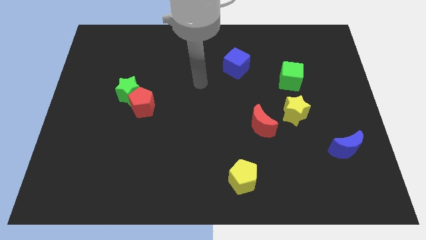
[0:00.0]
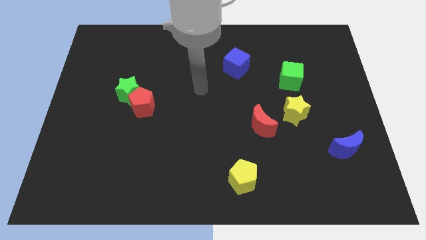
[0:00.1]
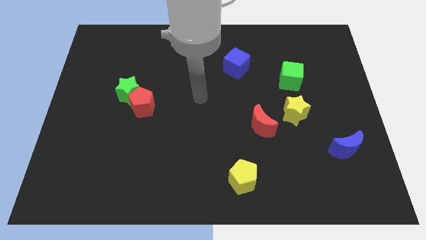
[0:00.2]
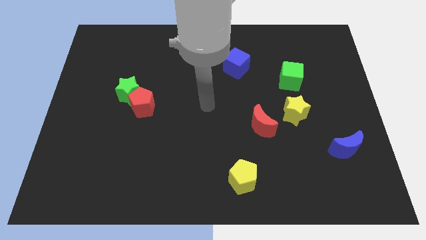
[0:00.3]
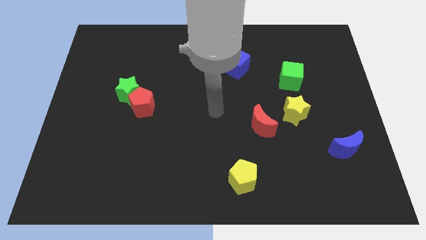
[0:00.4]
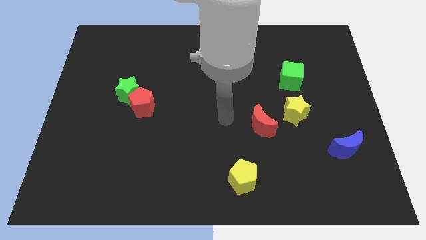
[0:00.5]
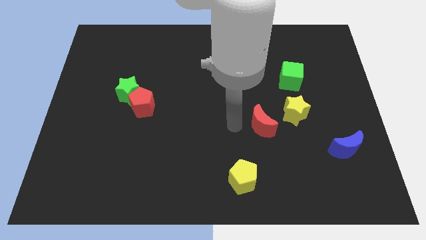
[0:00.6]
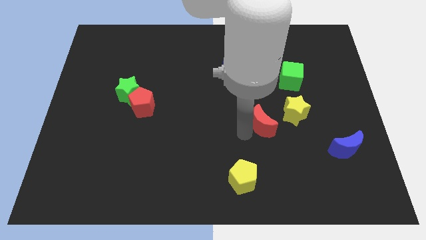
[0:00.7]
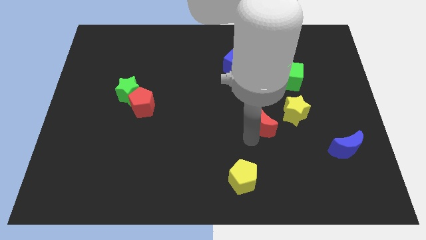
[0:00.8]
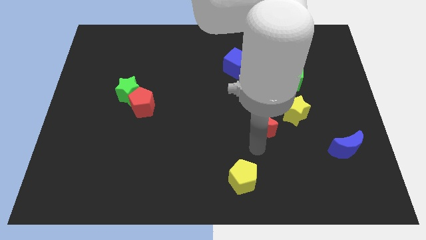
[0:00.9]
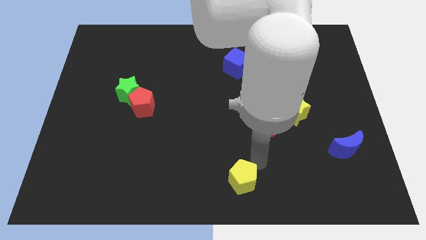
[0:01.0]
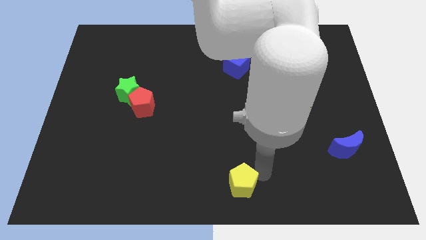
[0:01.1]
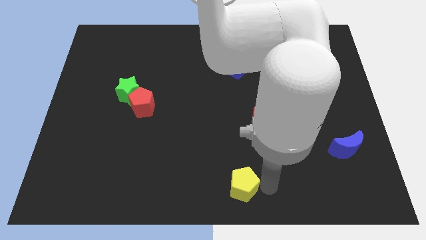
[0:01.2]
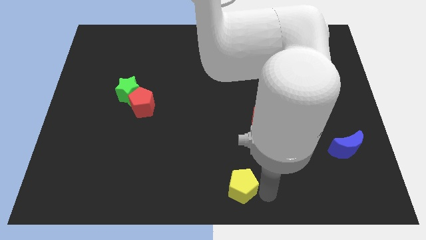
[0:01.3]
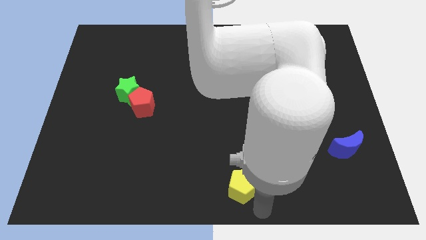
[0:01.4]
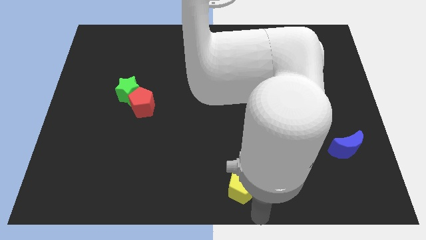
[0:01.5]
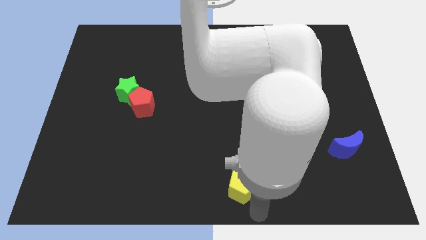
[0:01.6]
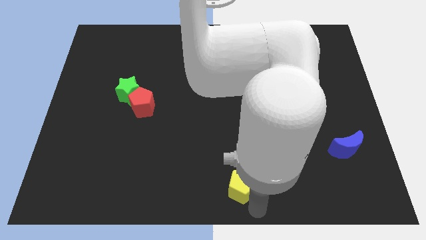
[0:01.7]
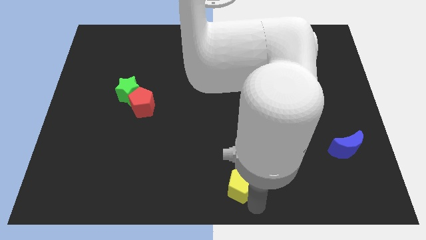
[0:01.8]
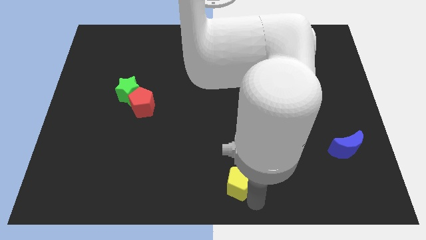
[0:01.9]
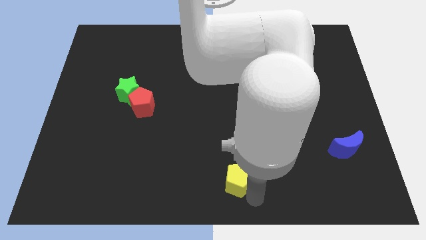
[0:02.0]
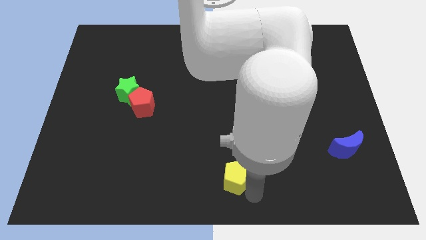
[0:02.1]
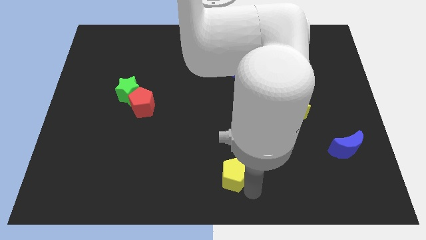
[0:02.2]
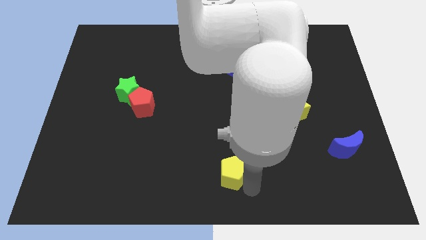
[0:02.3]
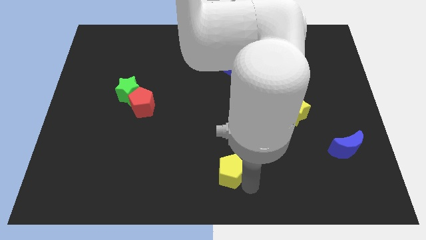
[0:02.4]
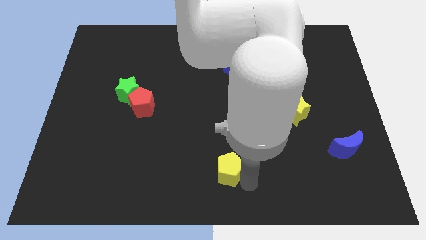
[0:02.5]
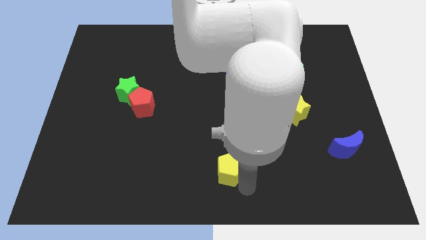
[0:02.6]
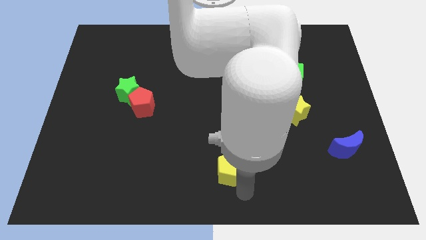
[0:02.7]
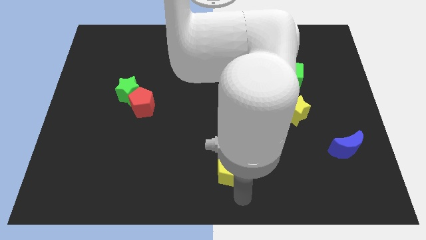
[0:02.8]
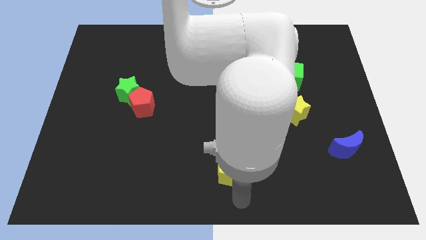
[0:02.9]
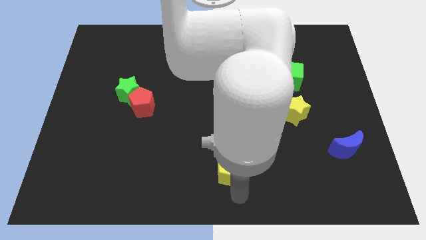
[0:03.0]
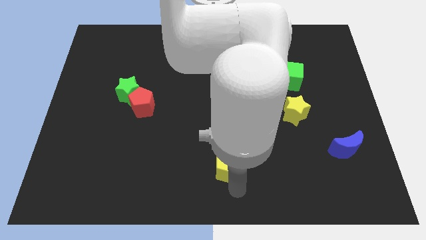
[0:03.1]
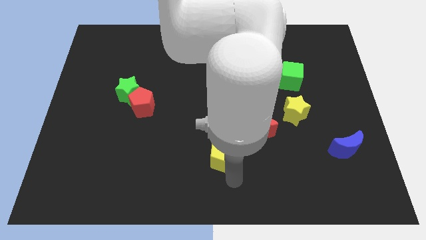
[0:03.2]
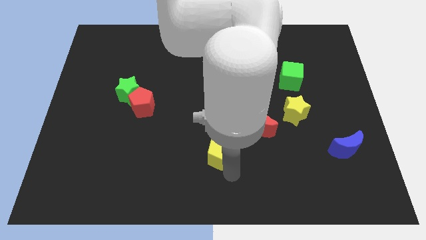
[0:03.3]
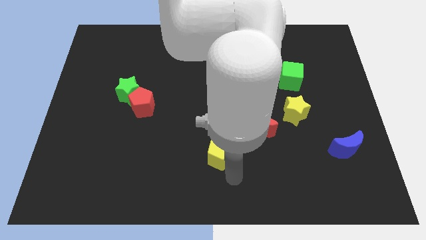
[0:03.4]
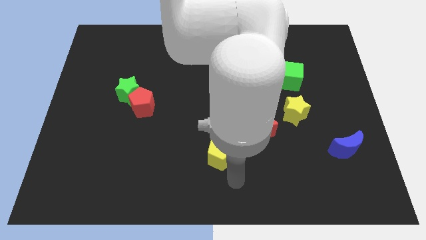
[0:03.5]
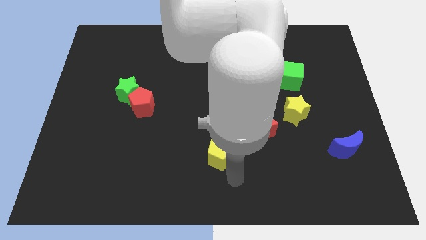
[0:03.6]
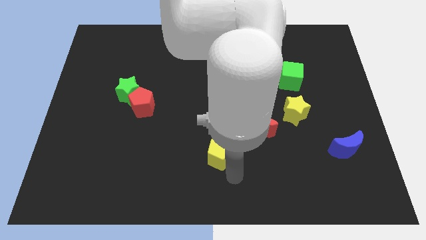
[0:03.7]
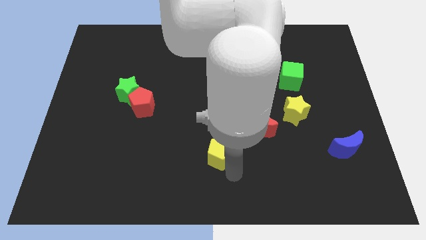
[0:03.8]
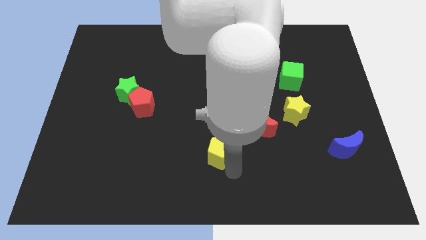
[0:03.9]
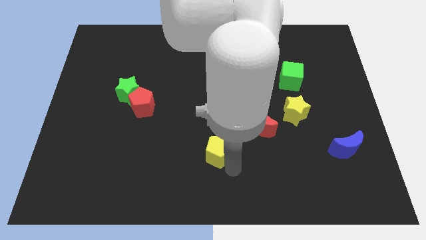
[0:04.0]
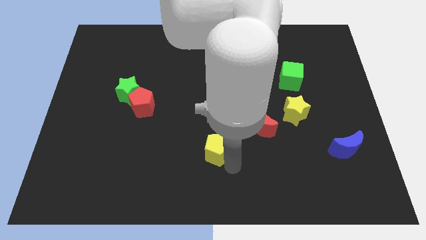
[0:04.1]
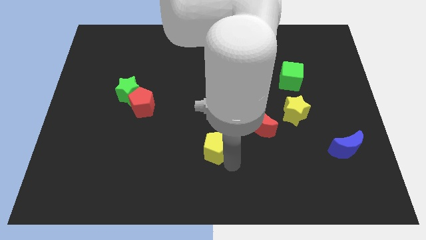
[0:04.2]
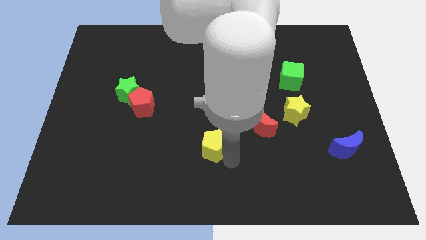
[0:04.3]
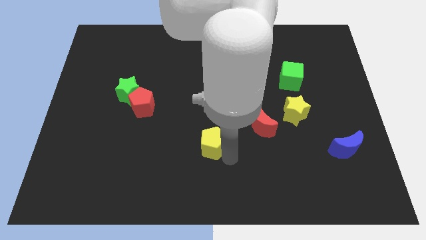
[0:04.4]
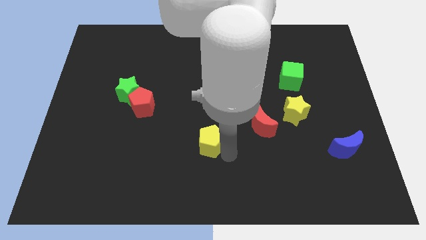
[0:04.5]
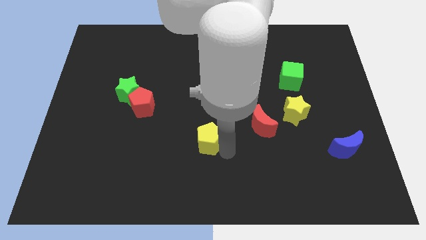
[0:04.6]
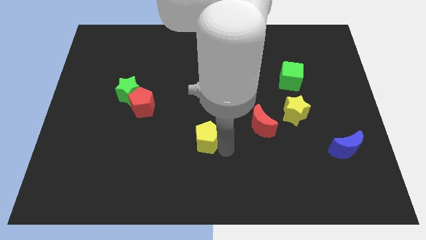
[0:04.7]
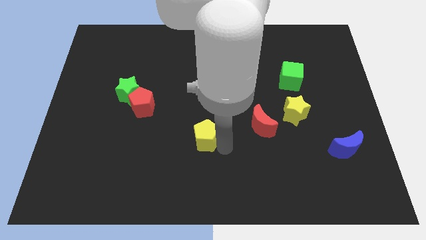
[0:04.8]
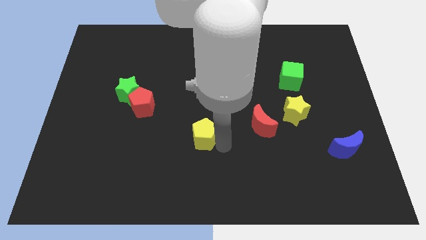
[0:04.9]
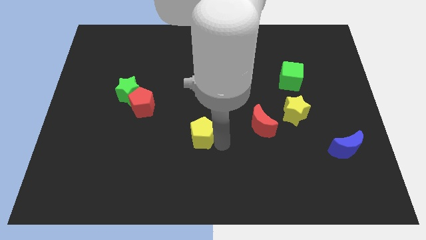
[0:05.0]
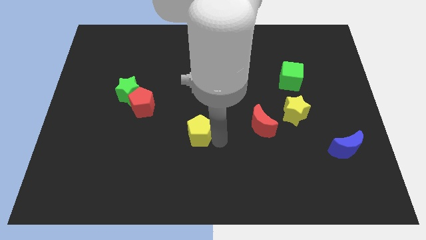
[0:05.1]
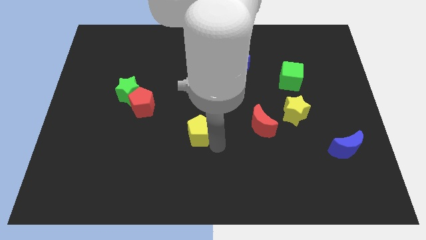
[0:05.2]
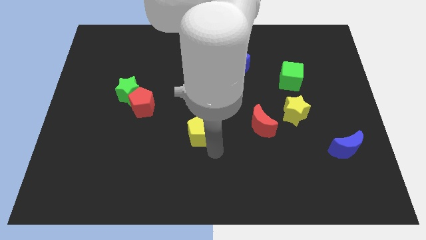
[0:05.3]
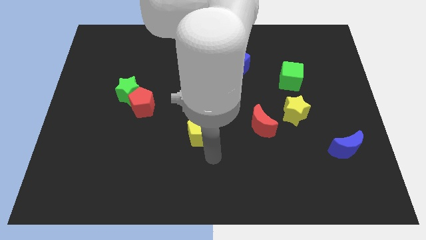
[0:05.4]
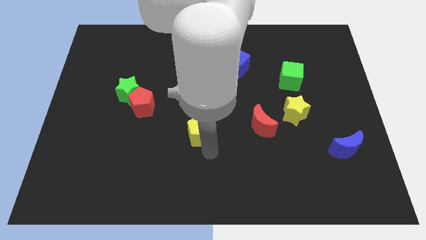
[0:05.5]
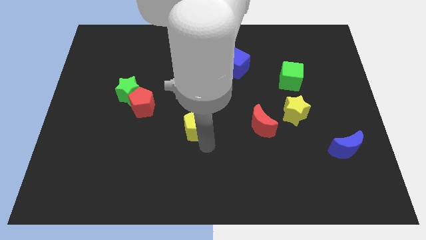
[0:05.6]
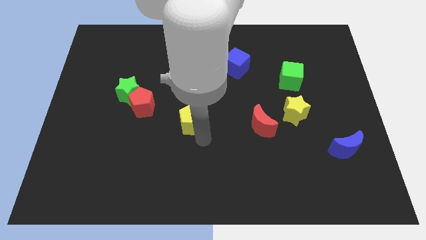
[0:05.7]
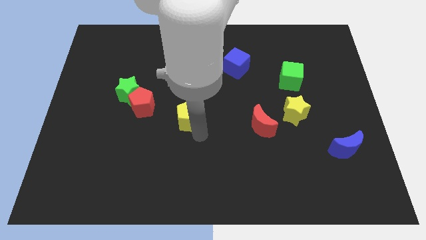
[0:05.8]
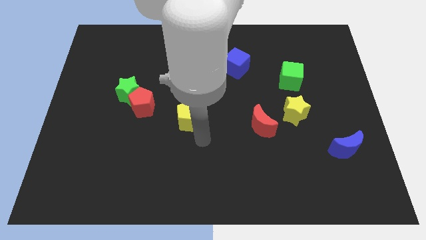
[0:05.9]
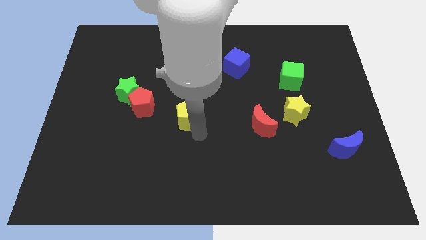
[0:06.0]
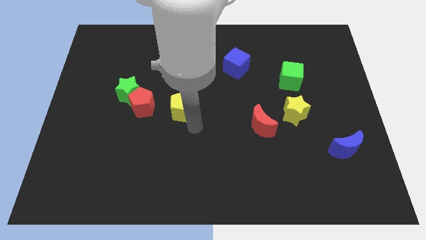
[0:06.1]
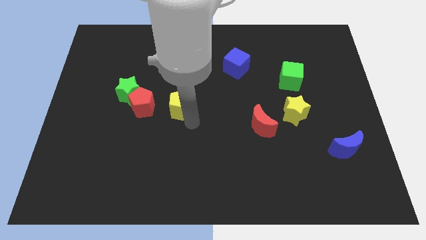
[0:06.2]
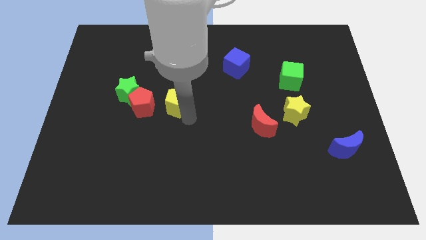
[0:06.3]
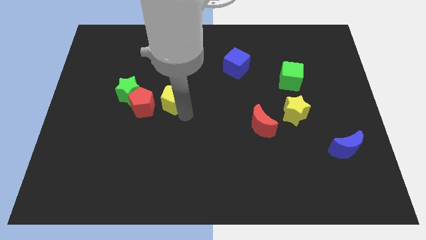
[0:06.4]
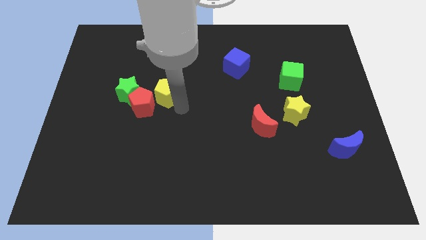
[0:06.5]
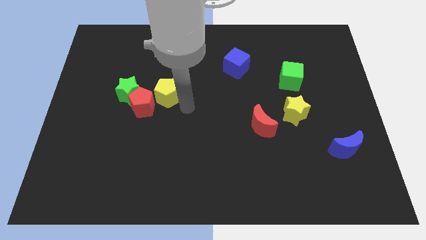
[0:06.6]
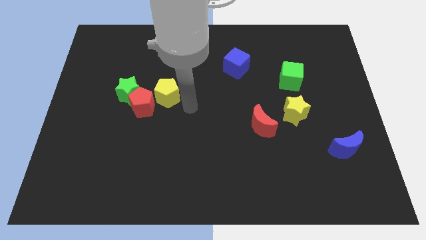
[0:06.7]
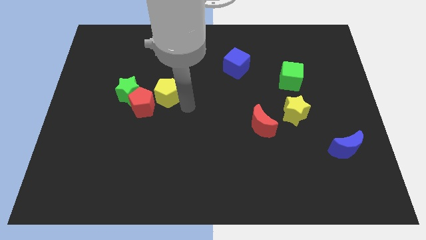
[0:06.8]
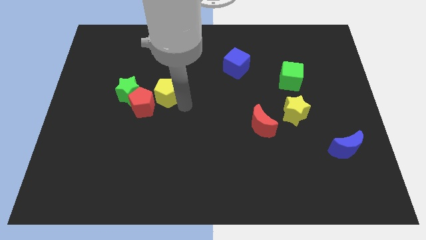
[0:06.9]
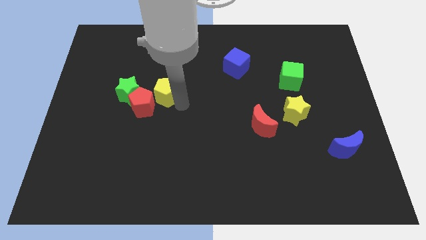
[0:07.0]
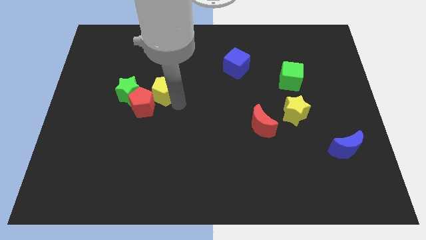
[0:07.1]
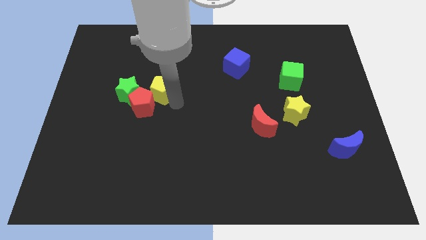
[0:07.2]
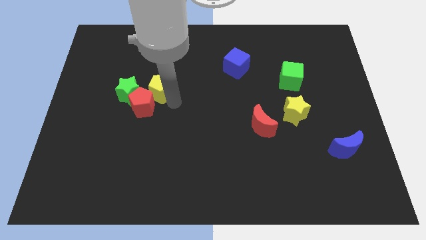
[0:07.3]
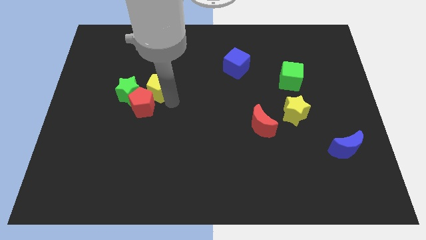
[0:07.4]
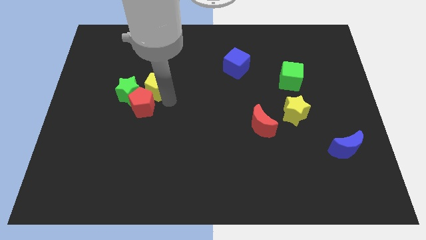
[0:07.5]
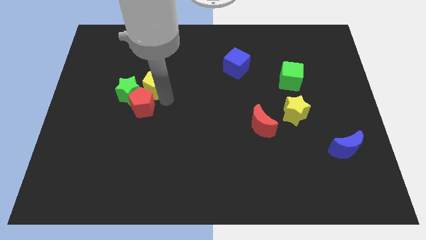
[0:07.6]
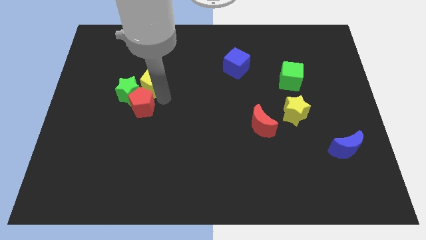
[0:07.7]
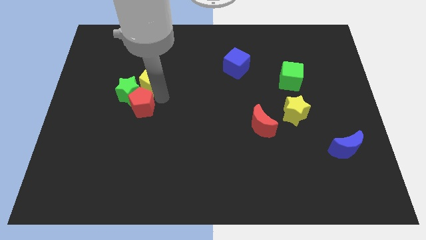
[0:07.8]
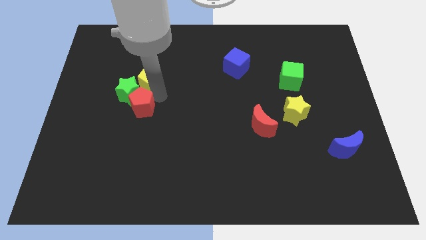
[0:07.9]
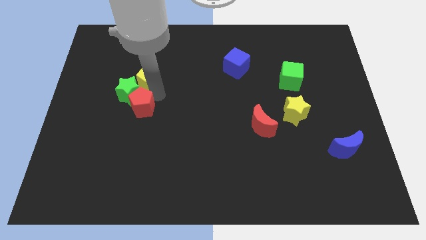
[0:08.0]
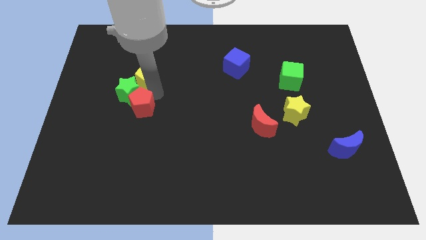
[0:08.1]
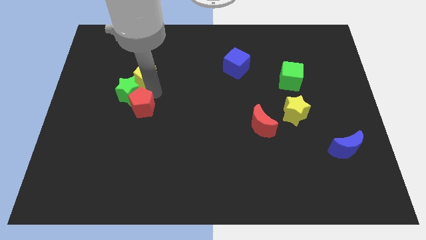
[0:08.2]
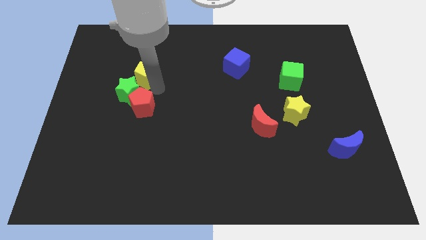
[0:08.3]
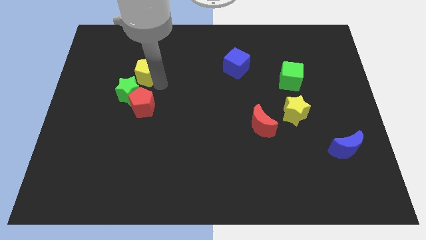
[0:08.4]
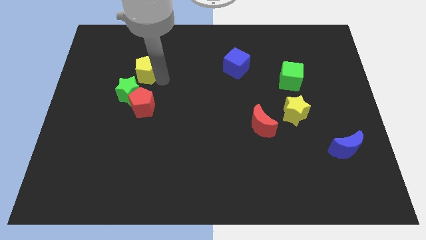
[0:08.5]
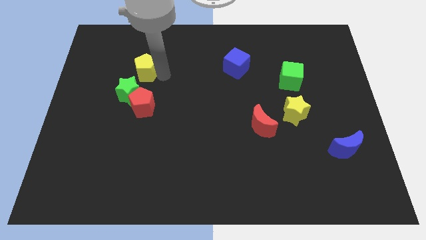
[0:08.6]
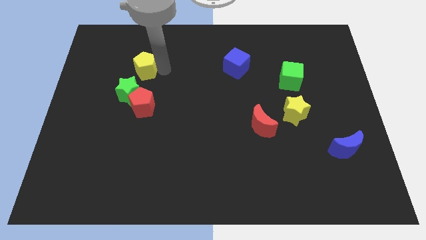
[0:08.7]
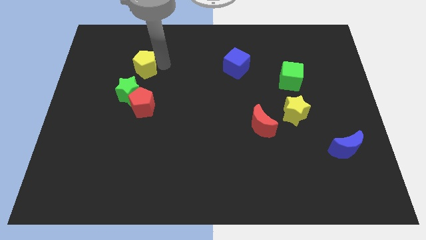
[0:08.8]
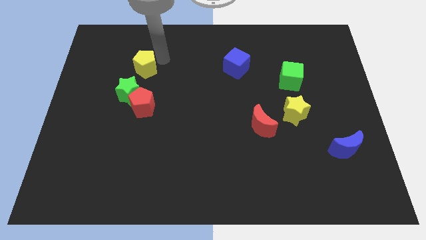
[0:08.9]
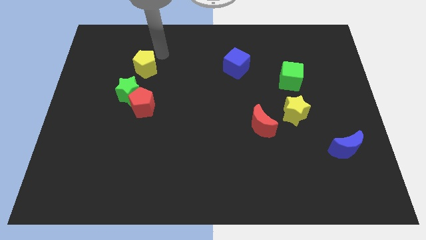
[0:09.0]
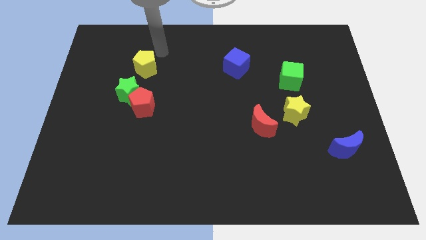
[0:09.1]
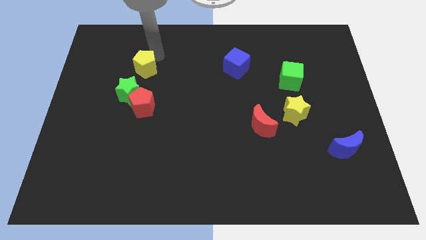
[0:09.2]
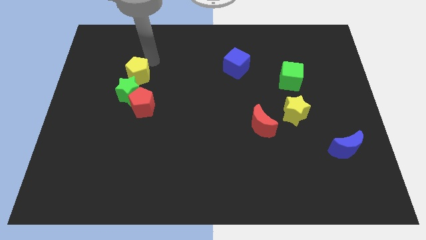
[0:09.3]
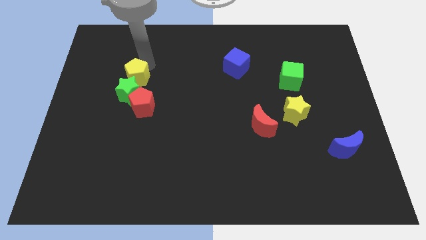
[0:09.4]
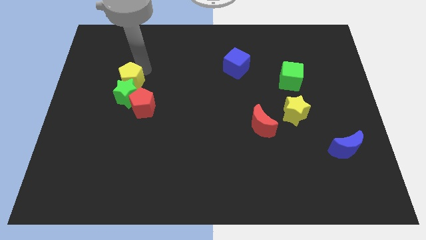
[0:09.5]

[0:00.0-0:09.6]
push the yellow pentagon diagonally up and to the left of the red pentagon
